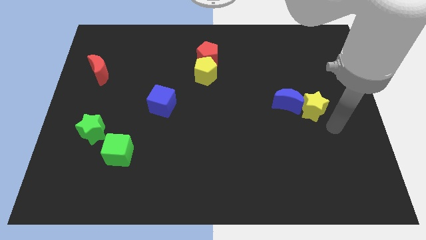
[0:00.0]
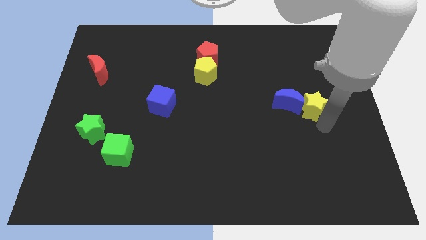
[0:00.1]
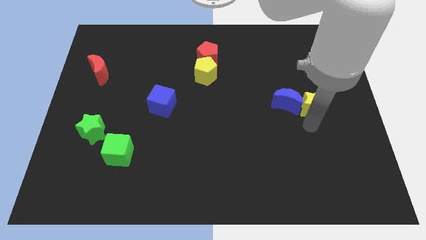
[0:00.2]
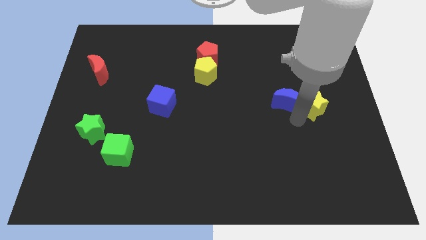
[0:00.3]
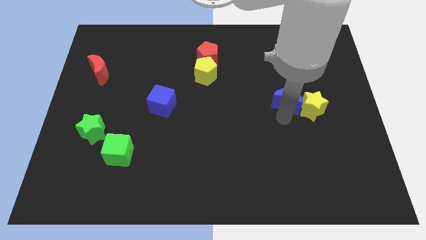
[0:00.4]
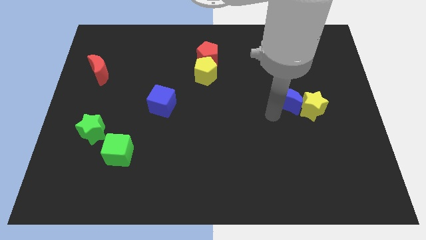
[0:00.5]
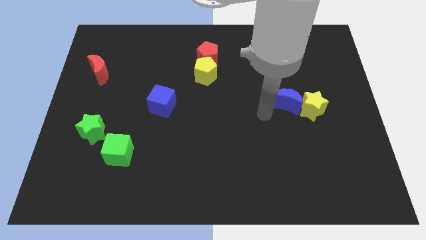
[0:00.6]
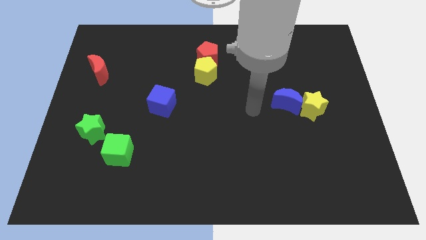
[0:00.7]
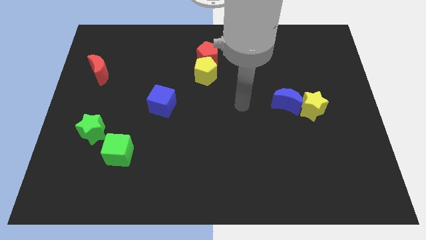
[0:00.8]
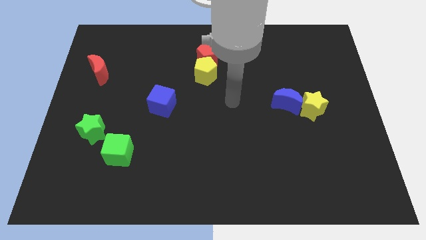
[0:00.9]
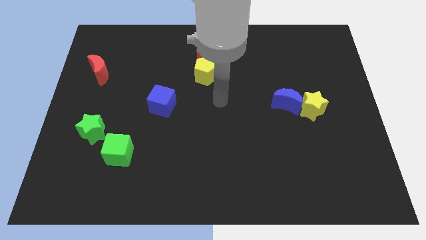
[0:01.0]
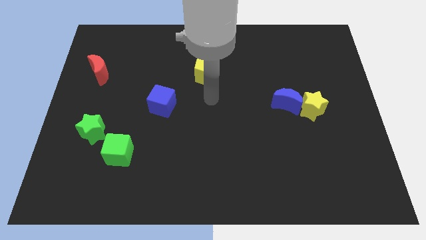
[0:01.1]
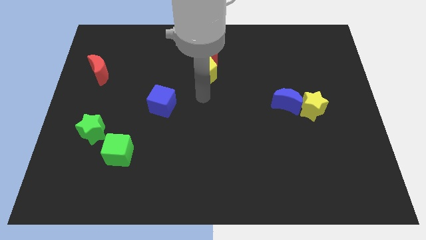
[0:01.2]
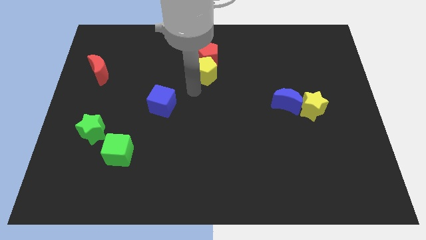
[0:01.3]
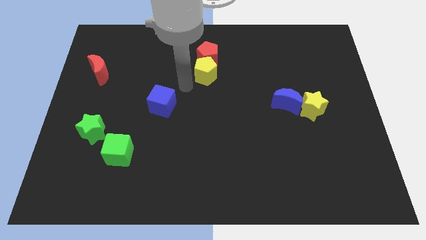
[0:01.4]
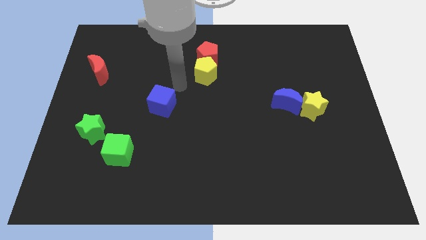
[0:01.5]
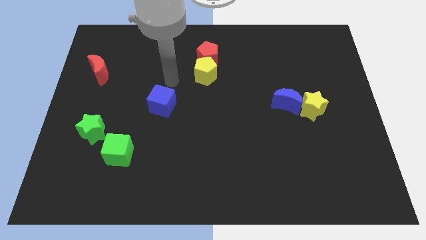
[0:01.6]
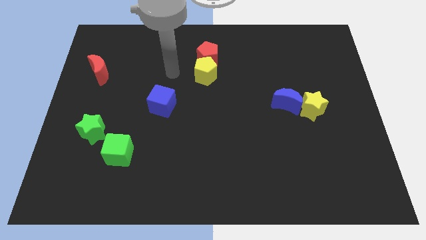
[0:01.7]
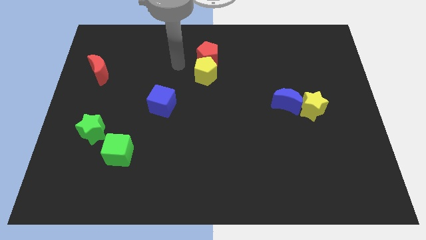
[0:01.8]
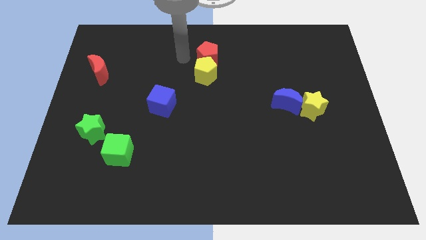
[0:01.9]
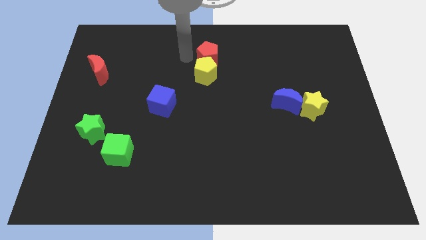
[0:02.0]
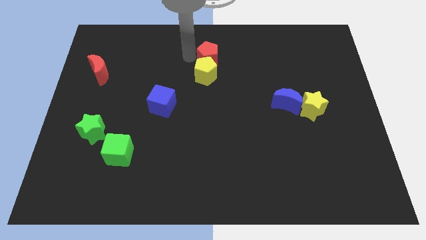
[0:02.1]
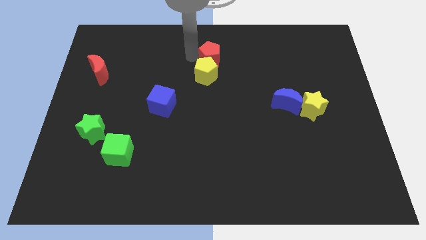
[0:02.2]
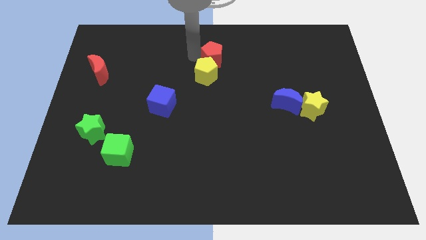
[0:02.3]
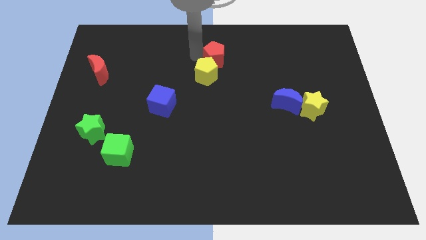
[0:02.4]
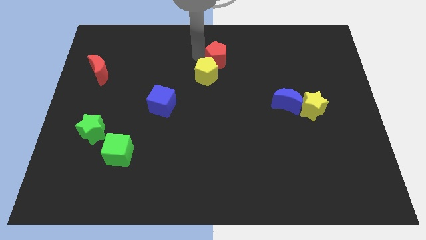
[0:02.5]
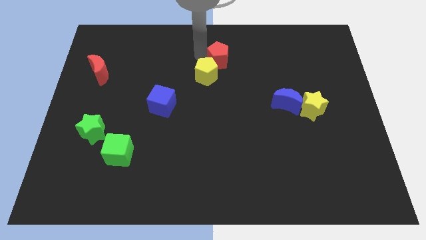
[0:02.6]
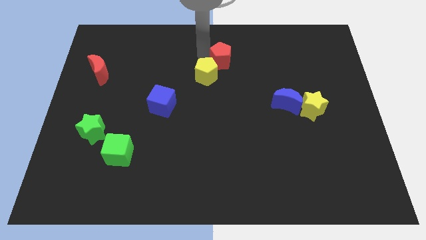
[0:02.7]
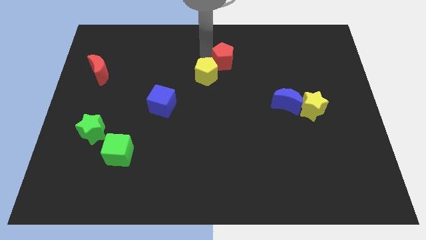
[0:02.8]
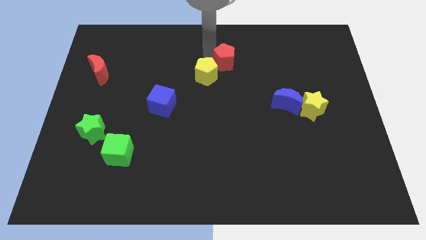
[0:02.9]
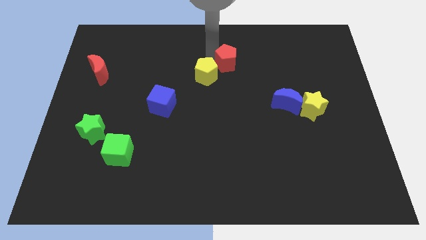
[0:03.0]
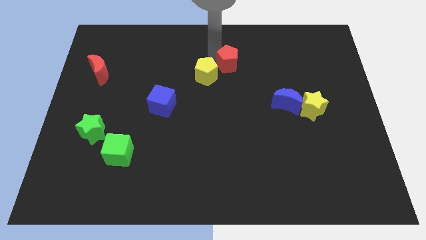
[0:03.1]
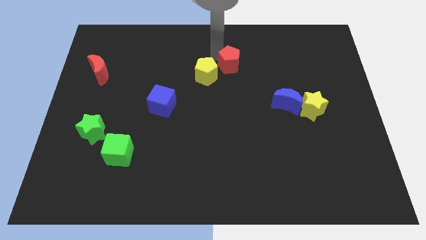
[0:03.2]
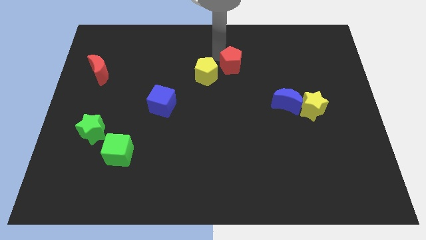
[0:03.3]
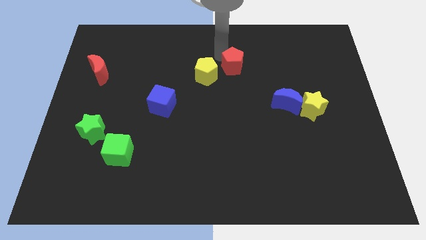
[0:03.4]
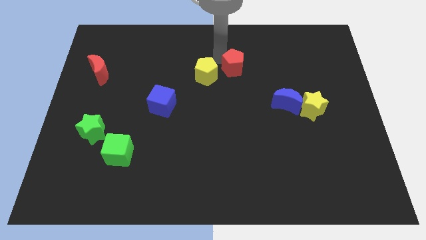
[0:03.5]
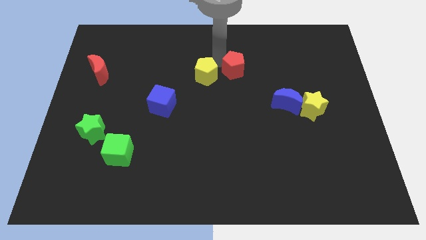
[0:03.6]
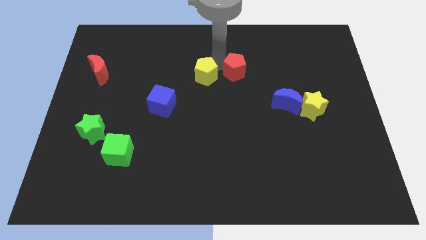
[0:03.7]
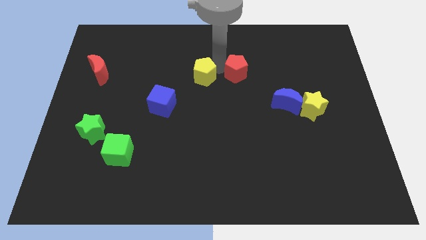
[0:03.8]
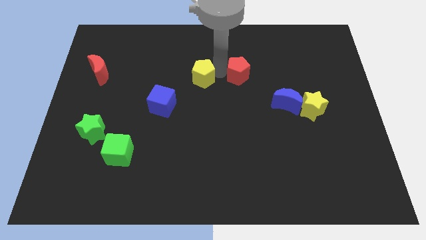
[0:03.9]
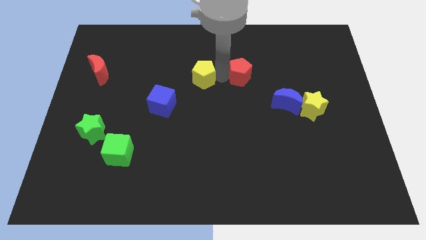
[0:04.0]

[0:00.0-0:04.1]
slightly move the red pentagon to the right

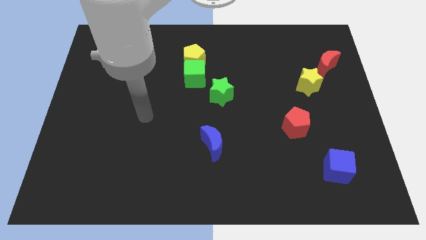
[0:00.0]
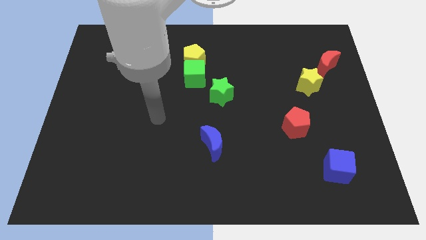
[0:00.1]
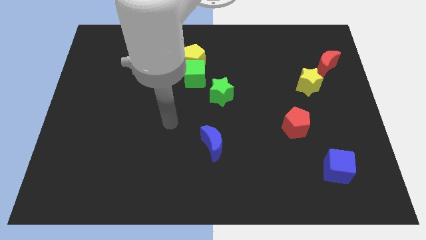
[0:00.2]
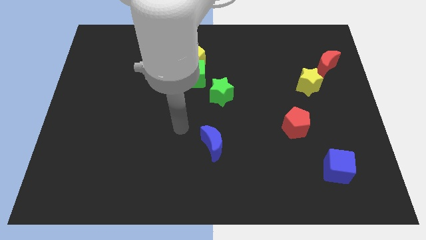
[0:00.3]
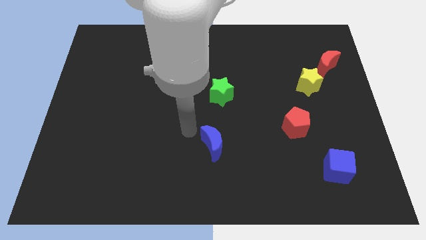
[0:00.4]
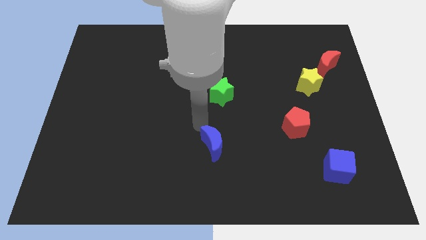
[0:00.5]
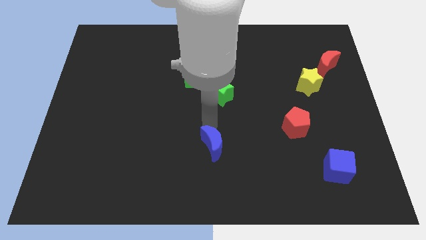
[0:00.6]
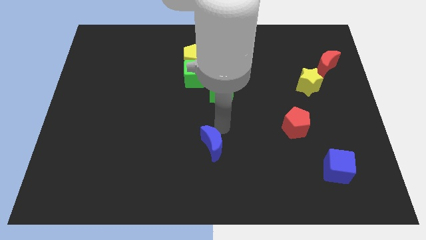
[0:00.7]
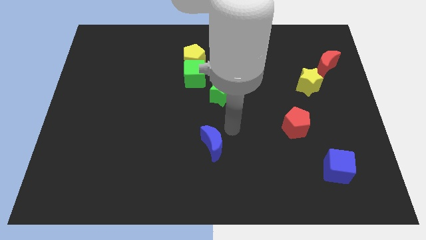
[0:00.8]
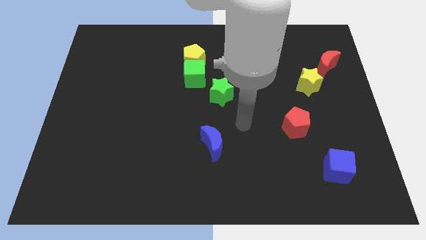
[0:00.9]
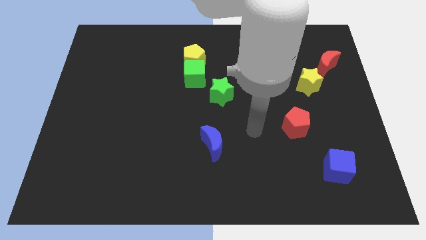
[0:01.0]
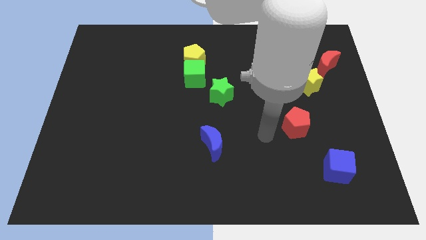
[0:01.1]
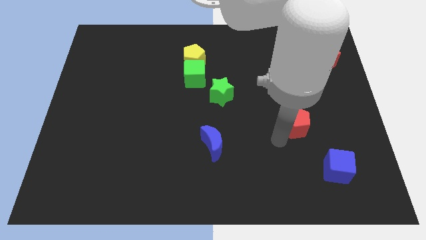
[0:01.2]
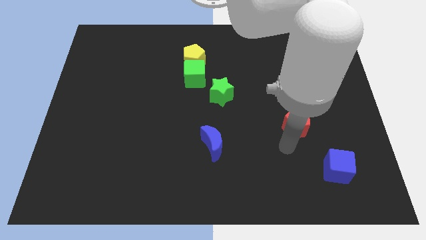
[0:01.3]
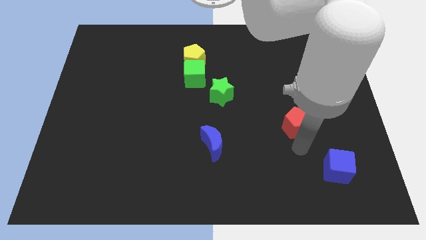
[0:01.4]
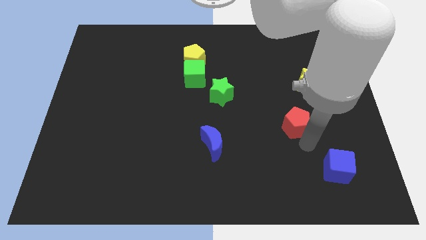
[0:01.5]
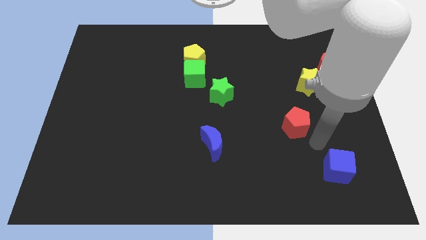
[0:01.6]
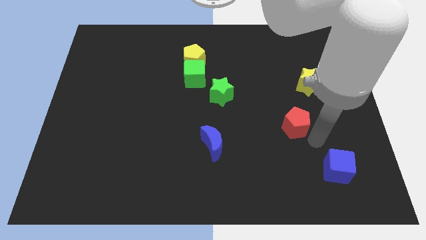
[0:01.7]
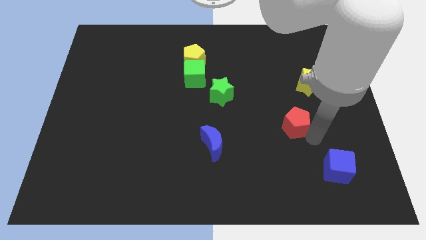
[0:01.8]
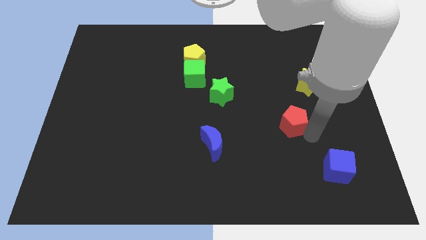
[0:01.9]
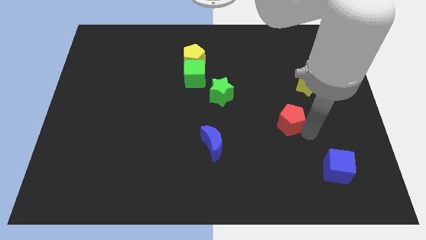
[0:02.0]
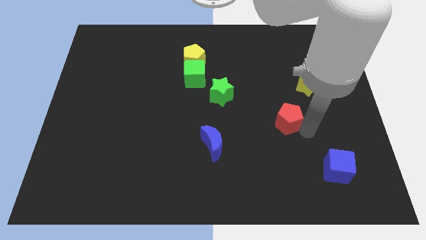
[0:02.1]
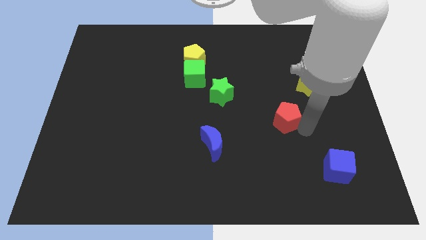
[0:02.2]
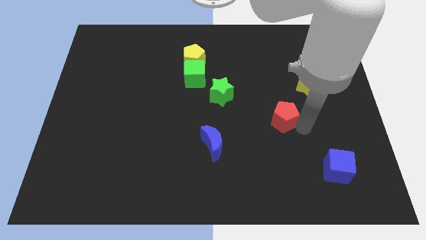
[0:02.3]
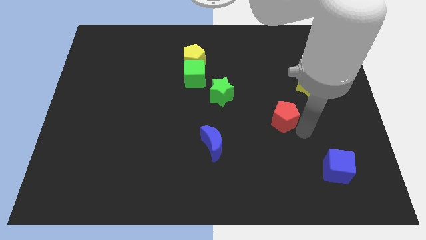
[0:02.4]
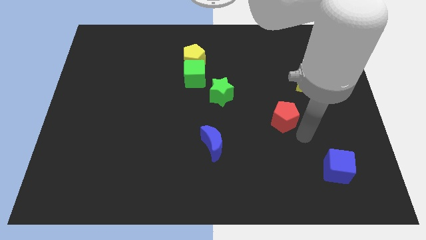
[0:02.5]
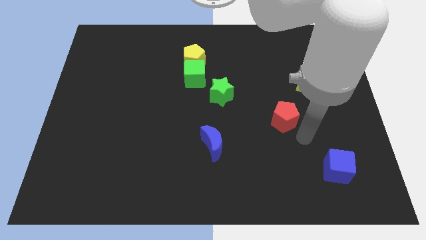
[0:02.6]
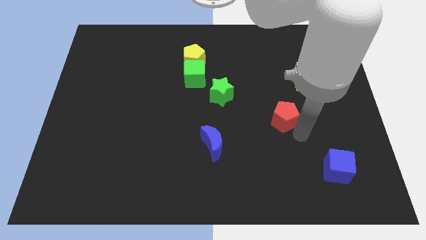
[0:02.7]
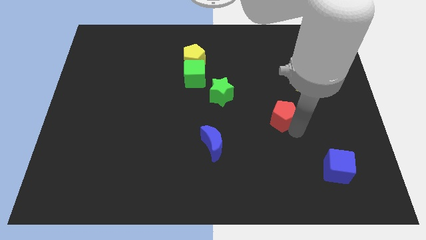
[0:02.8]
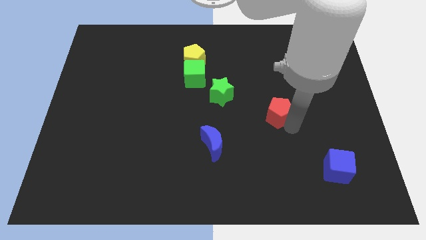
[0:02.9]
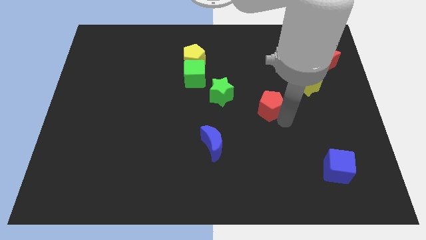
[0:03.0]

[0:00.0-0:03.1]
slide the red pentagon upwards and left a bit

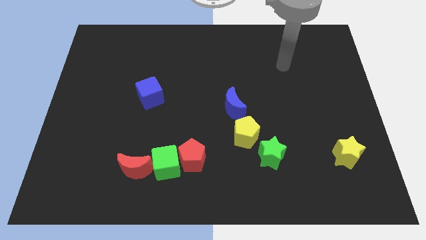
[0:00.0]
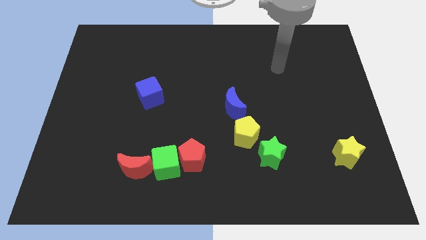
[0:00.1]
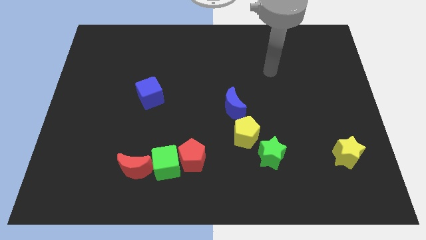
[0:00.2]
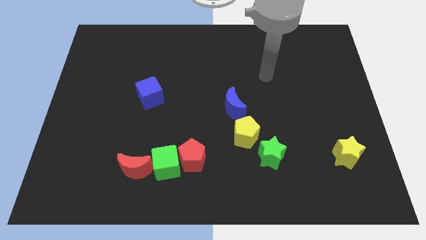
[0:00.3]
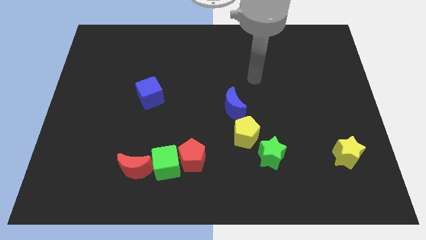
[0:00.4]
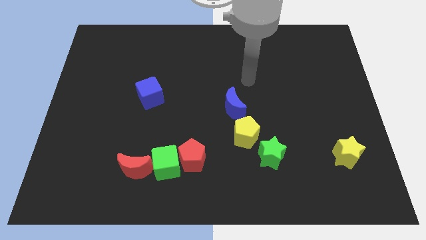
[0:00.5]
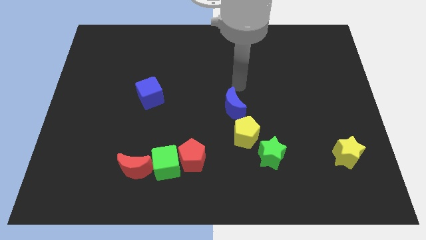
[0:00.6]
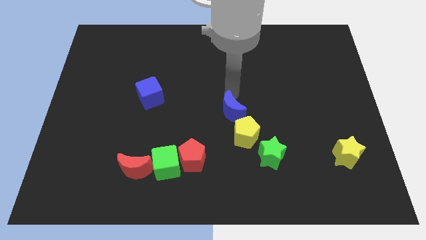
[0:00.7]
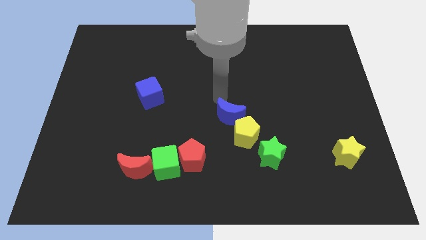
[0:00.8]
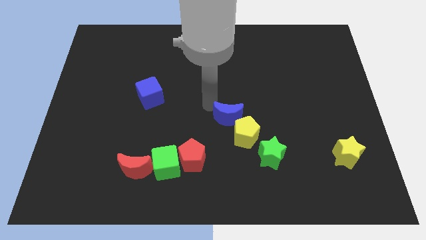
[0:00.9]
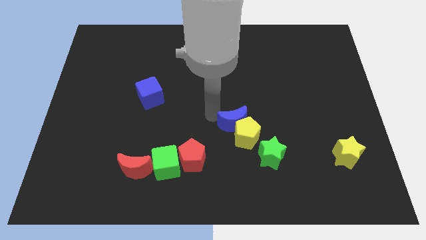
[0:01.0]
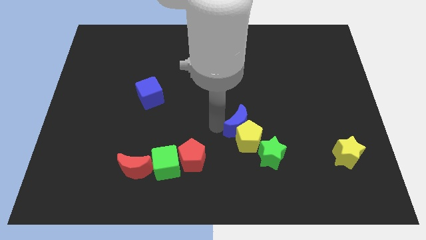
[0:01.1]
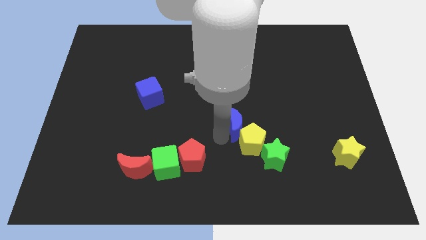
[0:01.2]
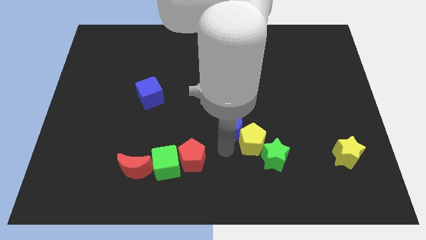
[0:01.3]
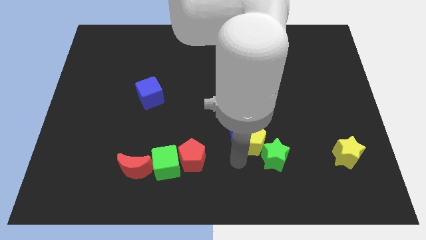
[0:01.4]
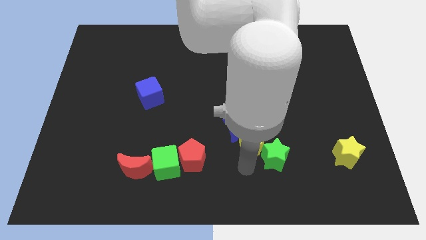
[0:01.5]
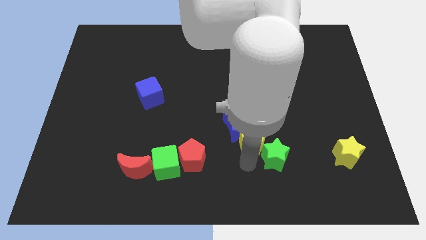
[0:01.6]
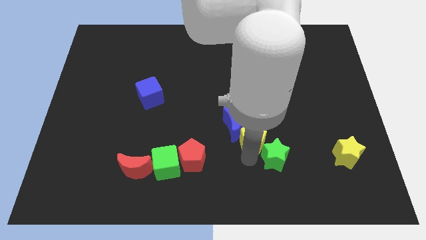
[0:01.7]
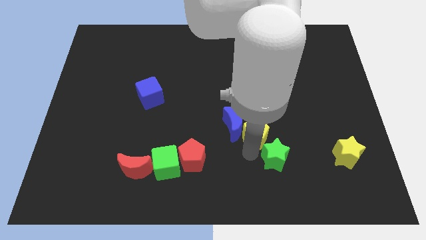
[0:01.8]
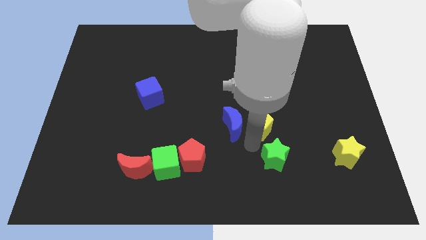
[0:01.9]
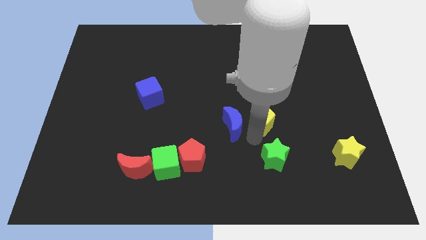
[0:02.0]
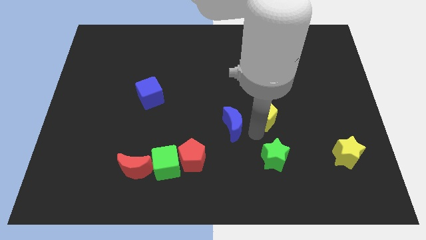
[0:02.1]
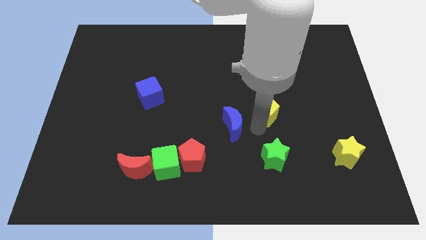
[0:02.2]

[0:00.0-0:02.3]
slide the yellow pentagon up and then to the right slightly
